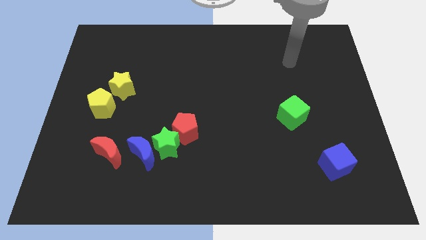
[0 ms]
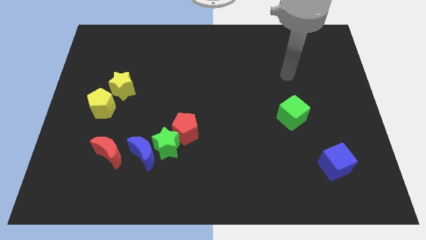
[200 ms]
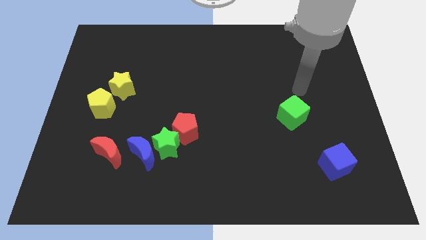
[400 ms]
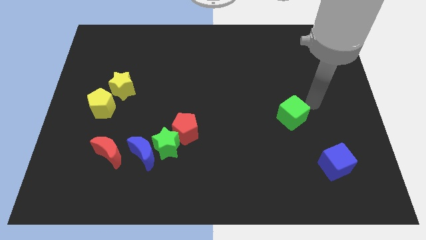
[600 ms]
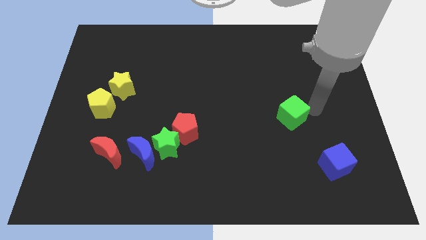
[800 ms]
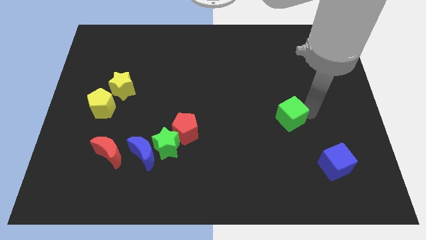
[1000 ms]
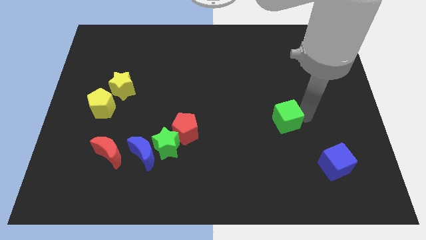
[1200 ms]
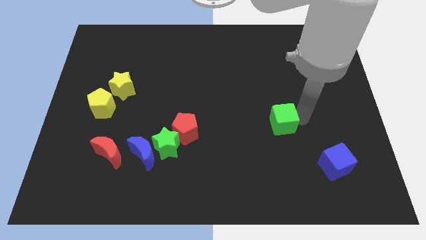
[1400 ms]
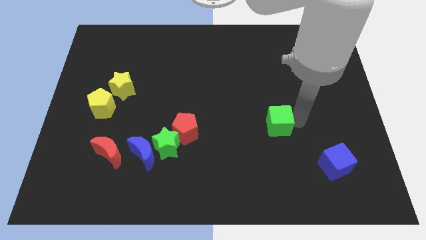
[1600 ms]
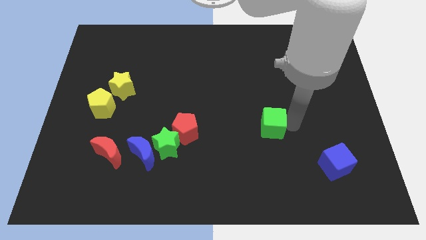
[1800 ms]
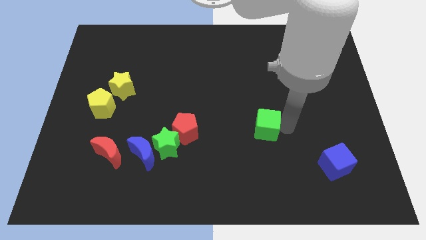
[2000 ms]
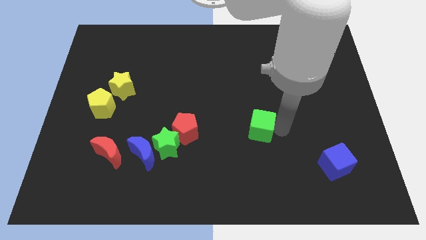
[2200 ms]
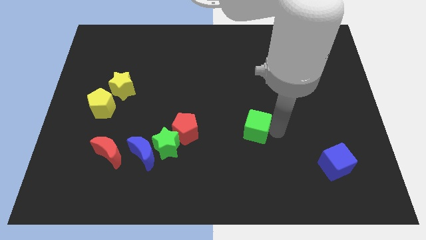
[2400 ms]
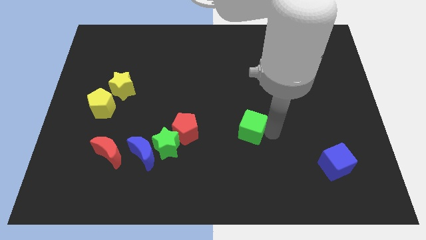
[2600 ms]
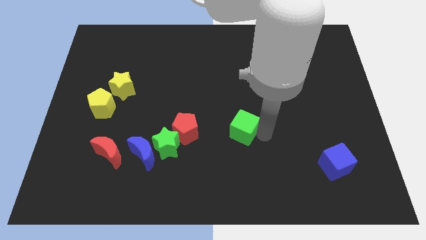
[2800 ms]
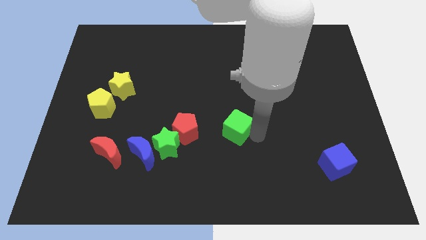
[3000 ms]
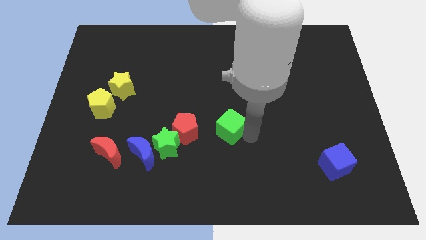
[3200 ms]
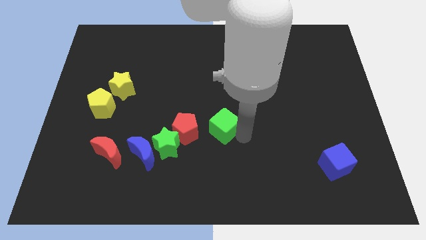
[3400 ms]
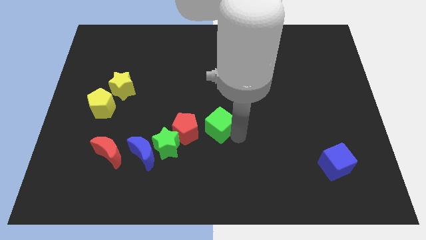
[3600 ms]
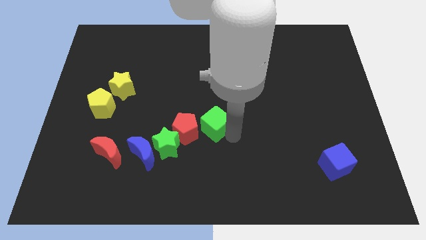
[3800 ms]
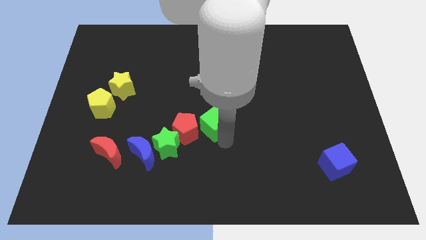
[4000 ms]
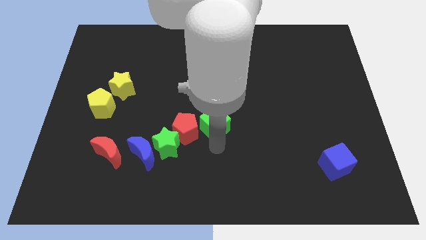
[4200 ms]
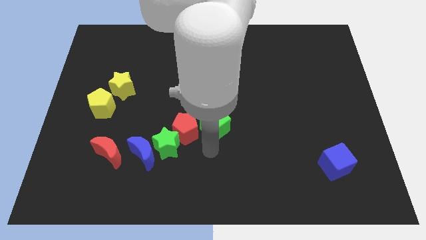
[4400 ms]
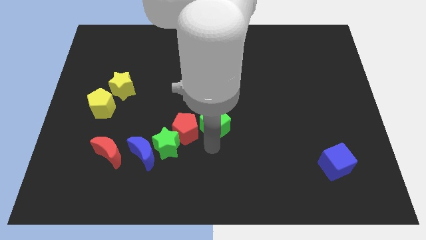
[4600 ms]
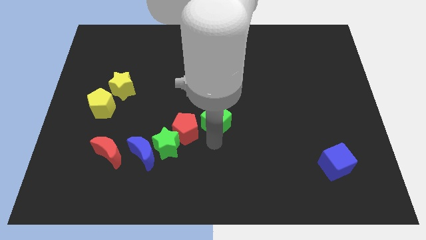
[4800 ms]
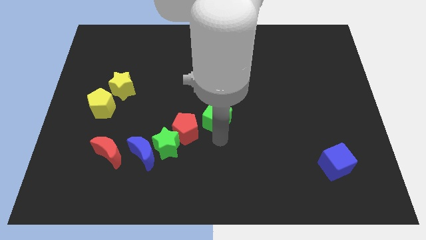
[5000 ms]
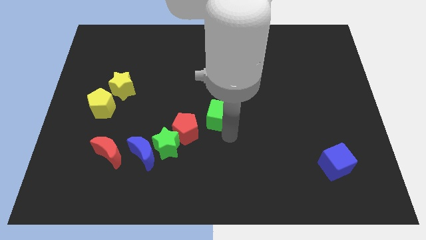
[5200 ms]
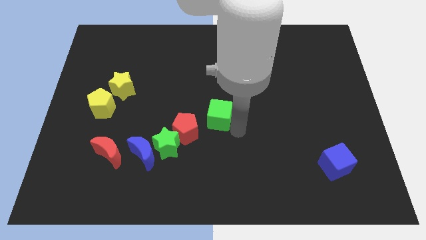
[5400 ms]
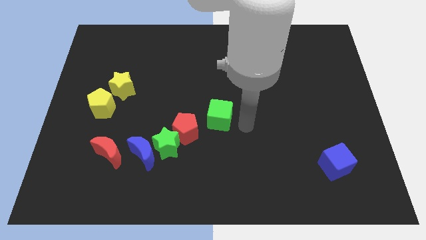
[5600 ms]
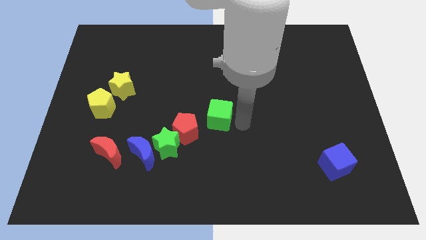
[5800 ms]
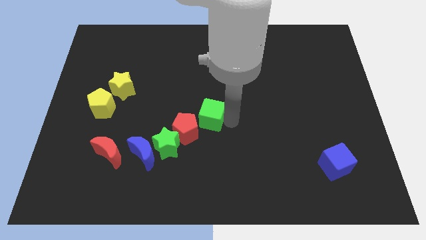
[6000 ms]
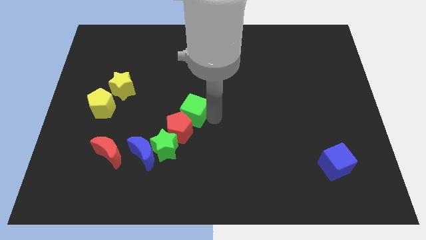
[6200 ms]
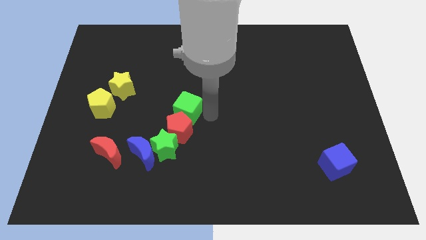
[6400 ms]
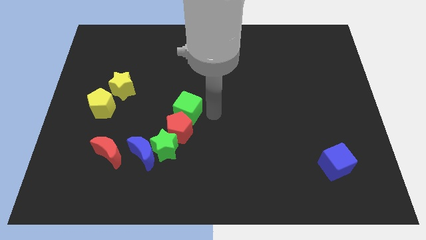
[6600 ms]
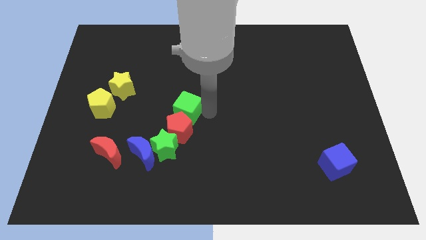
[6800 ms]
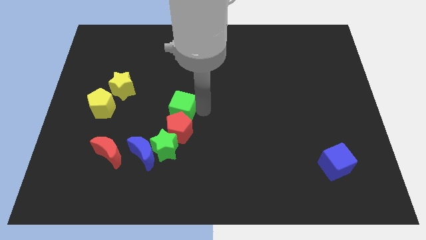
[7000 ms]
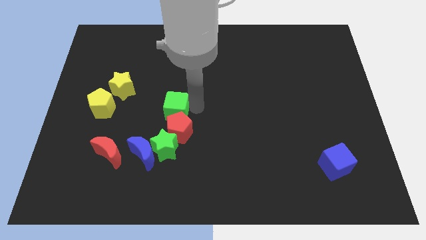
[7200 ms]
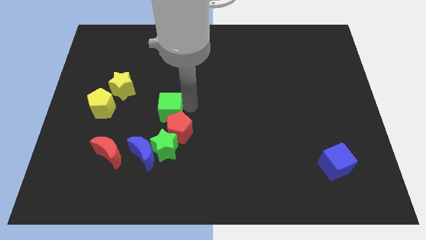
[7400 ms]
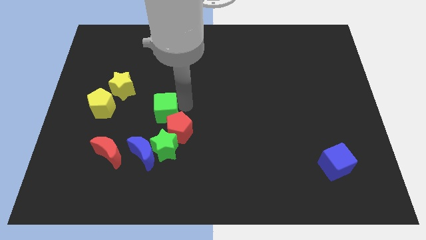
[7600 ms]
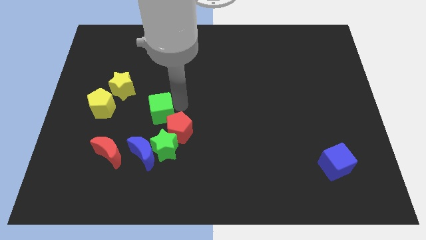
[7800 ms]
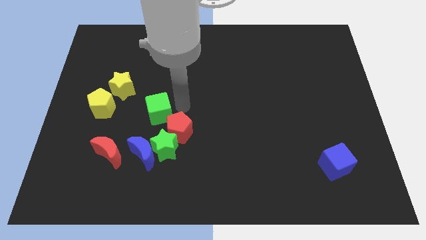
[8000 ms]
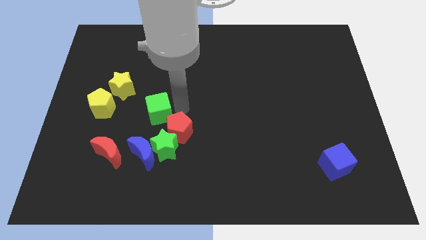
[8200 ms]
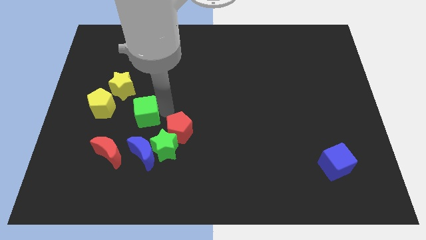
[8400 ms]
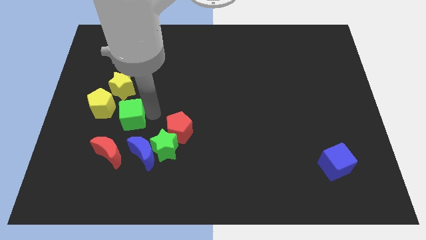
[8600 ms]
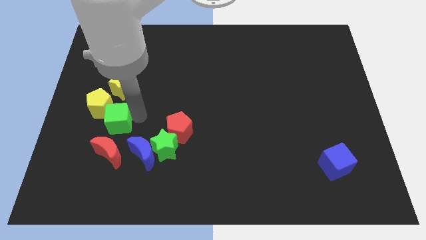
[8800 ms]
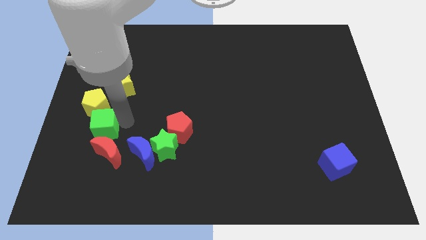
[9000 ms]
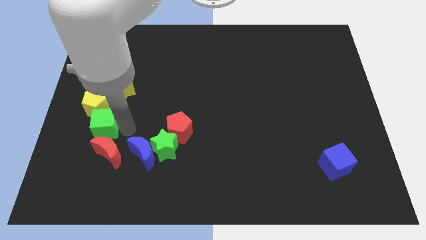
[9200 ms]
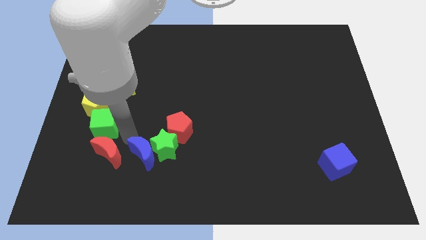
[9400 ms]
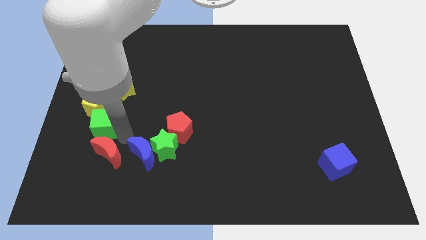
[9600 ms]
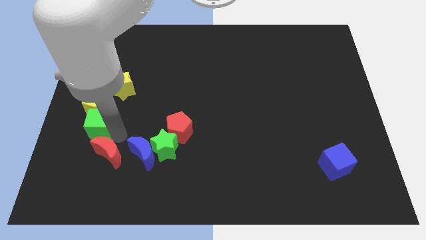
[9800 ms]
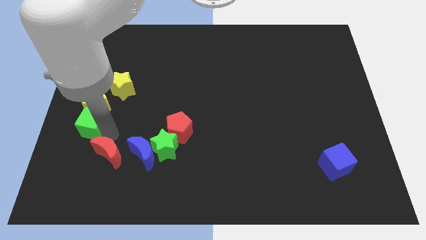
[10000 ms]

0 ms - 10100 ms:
push the green cube to the left side of the board
